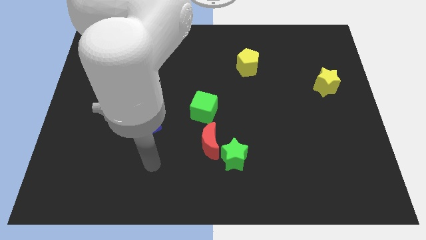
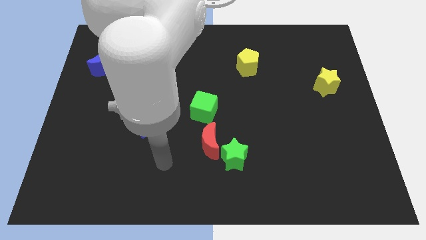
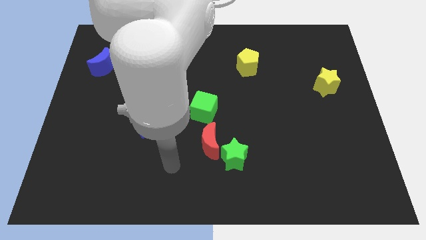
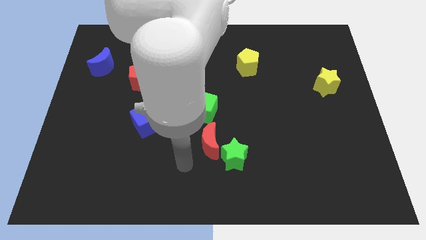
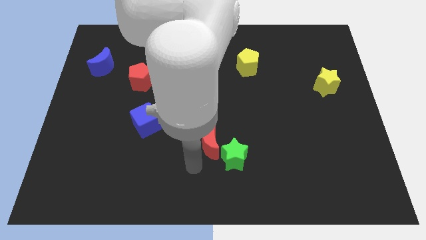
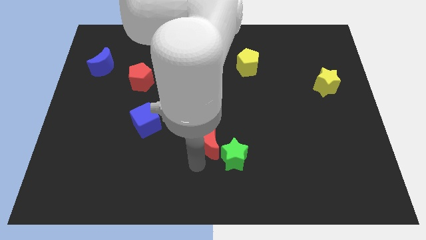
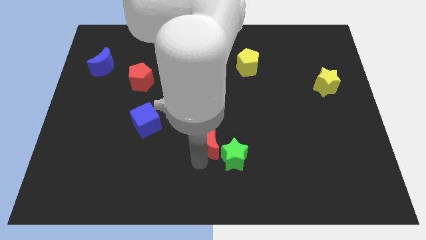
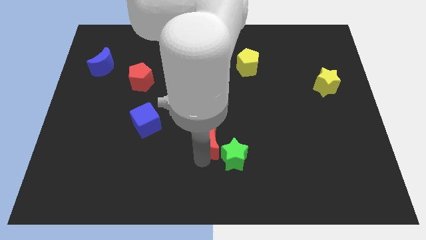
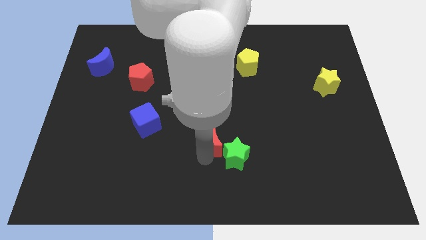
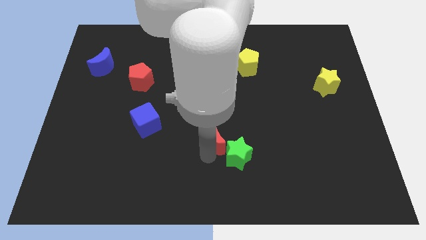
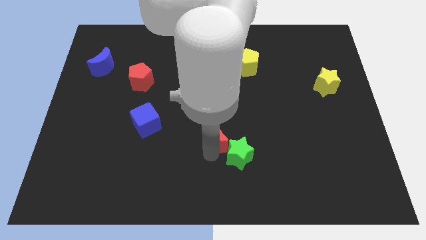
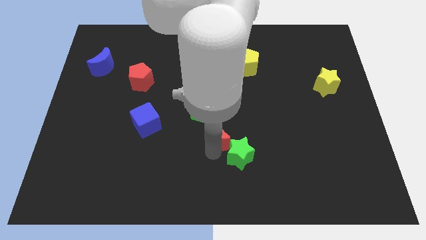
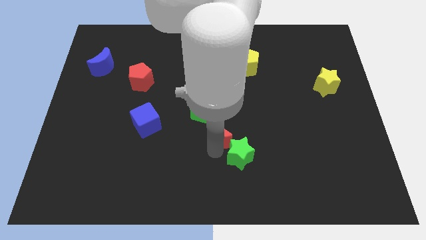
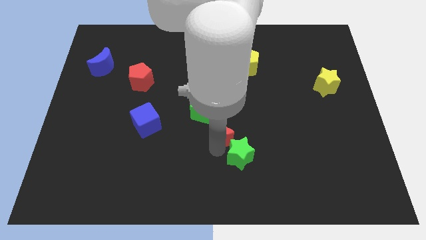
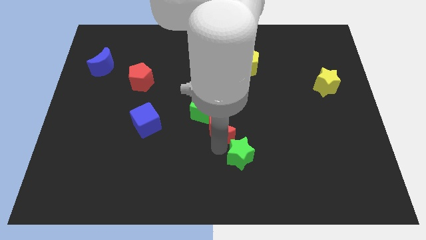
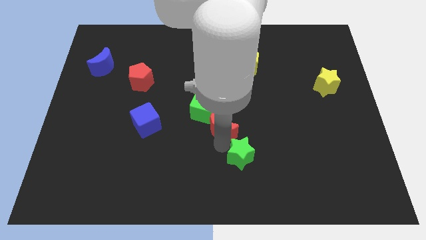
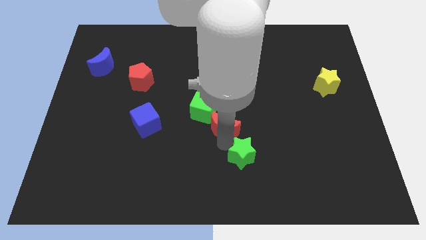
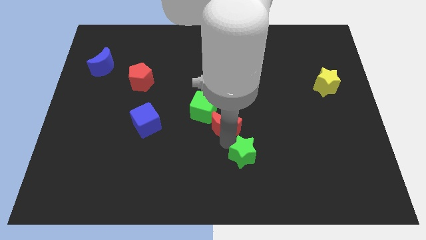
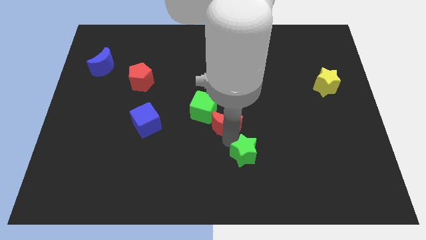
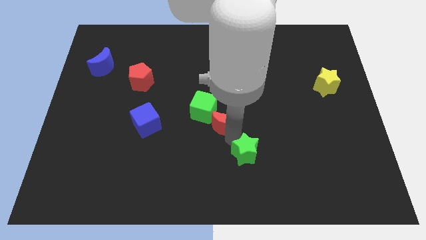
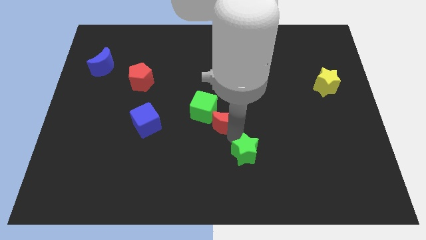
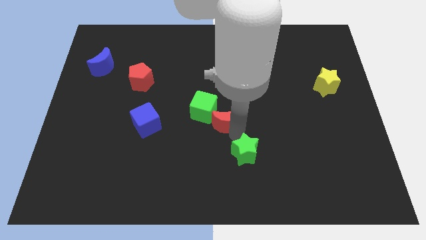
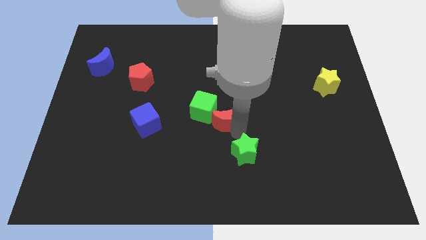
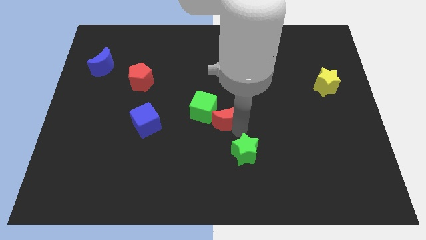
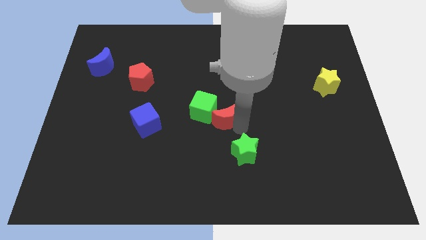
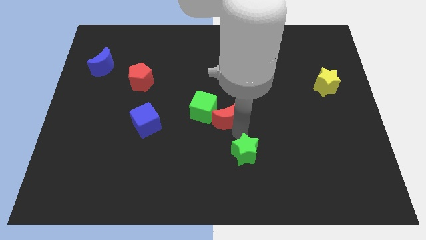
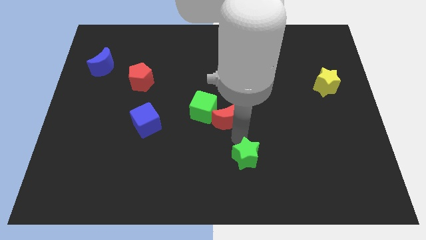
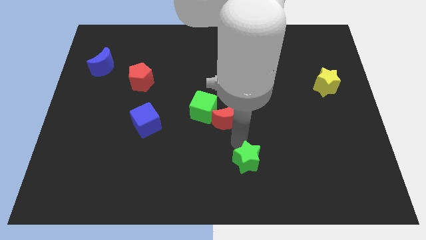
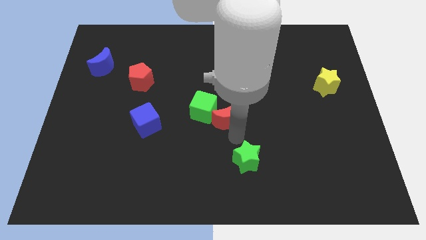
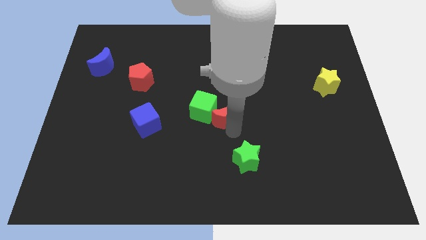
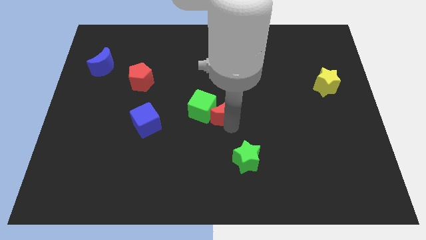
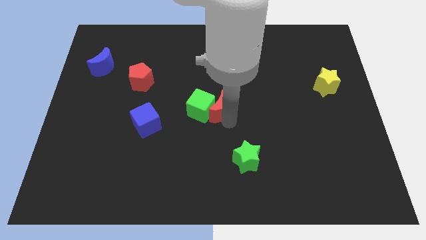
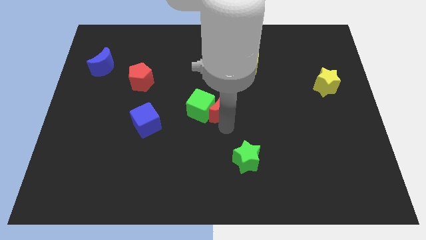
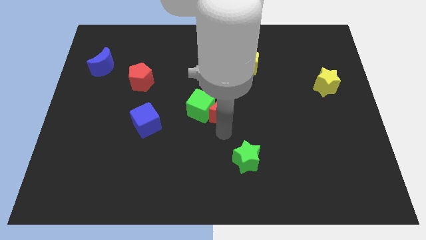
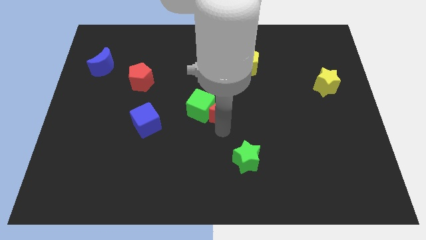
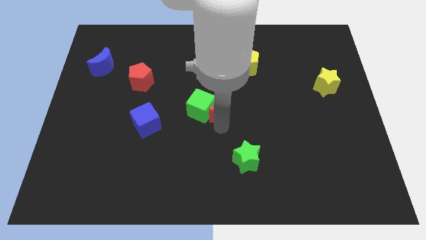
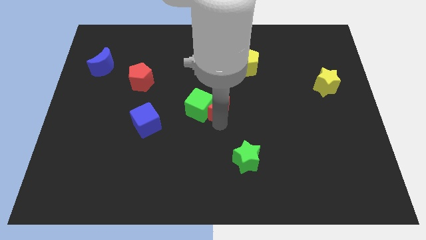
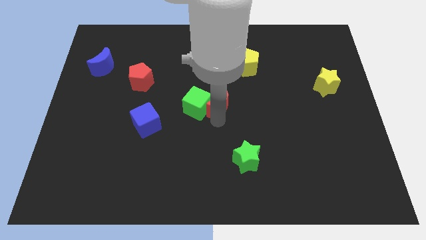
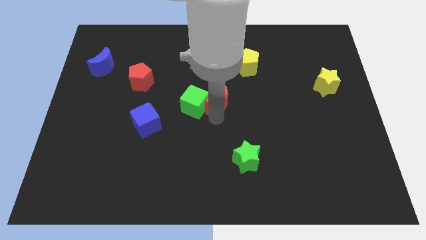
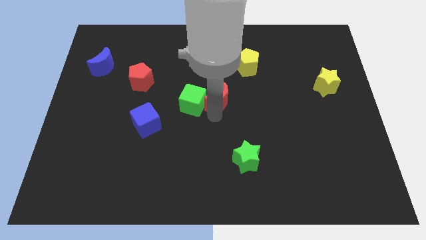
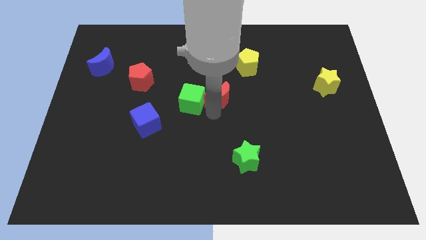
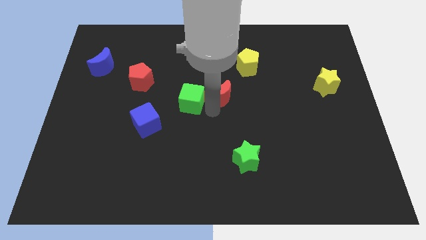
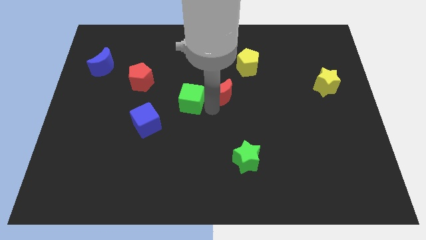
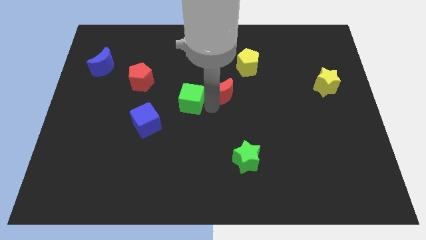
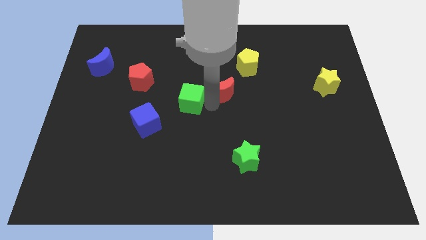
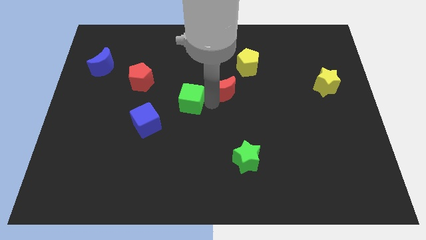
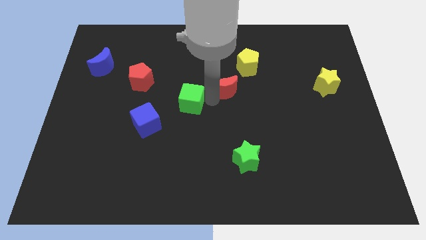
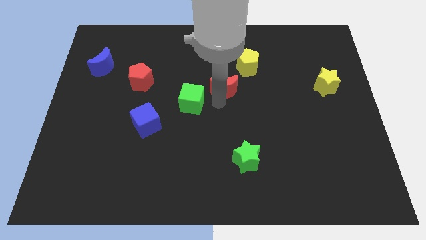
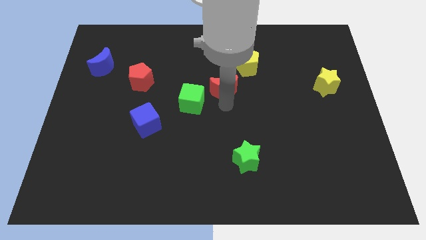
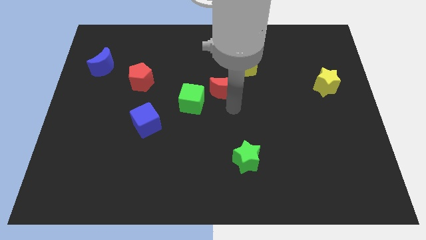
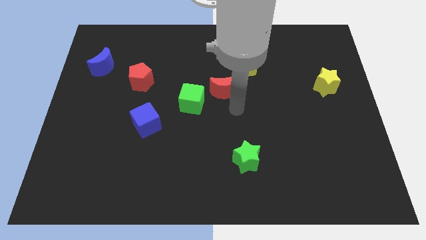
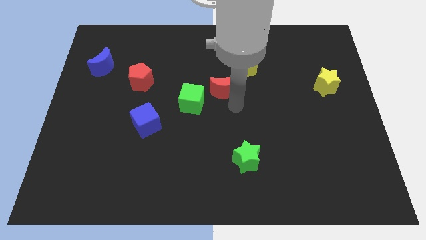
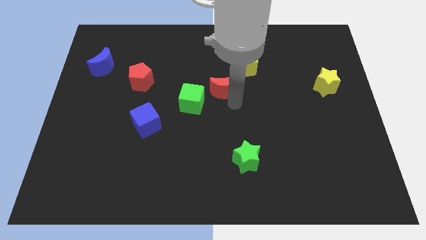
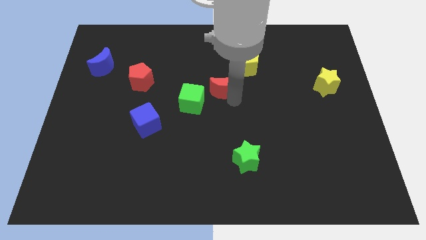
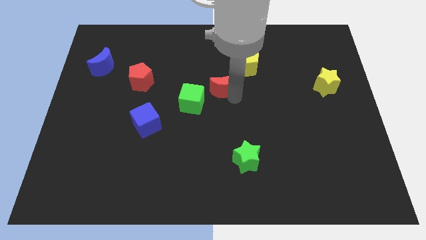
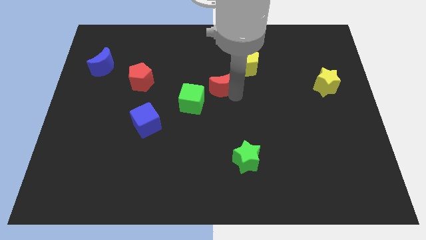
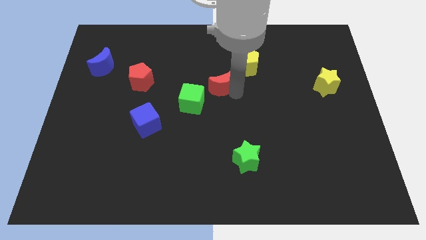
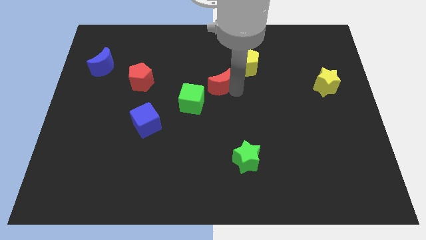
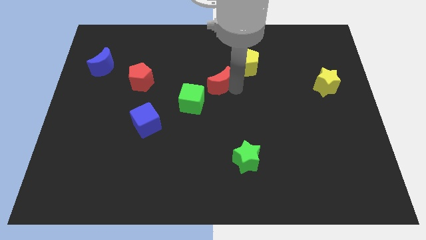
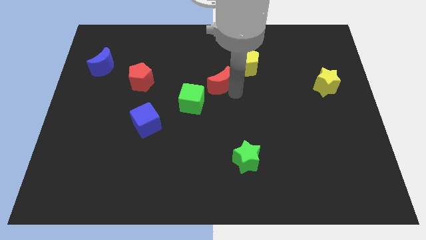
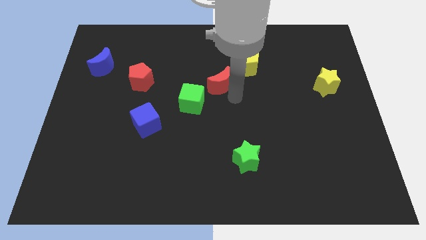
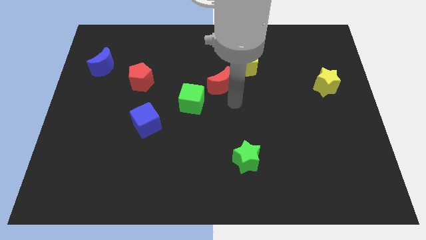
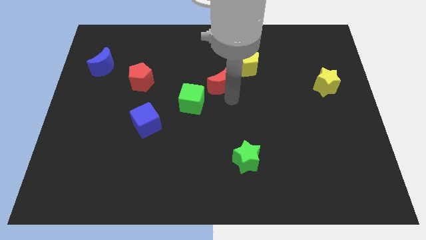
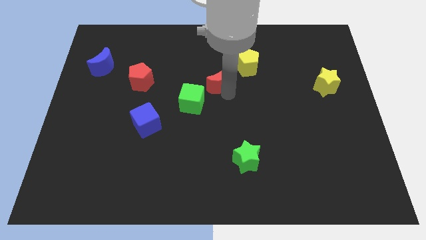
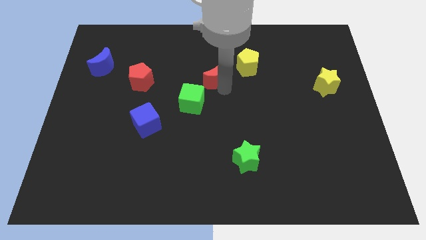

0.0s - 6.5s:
push the red moon to the left side of the yellow pentagon
